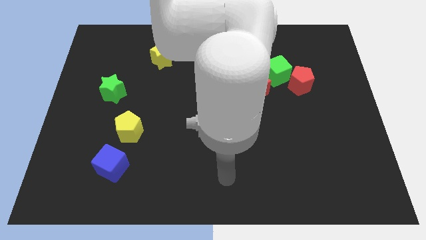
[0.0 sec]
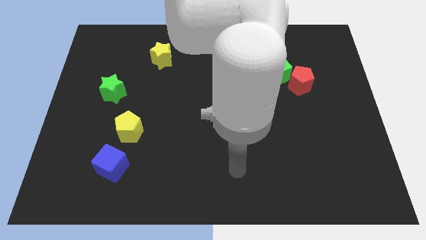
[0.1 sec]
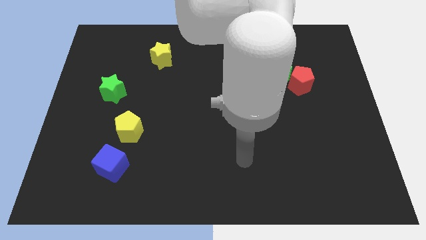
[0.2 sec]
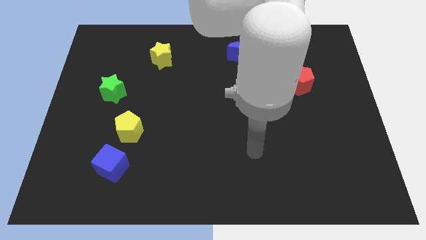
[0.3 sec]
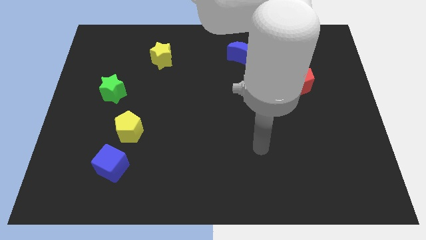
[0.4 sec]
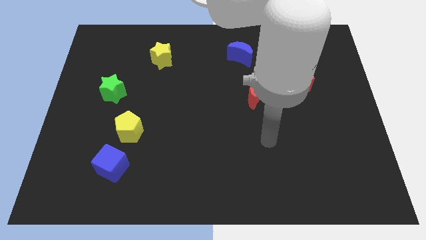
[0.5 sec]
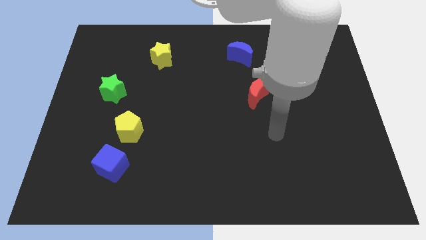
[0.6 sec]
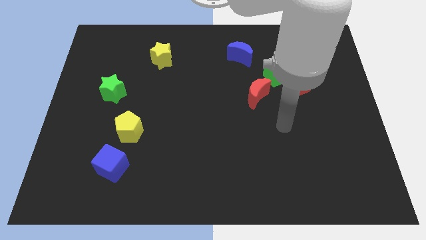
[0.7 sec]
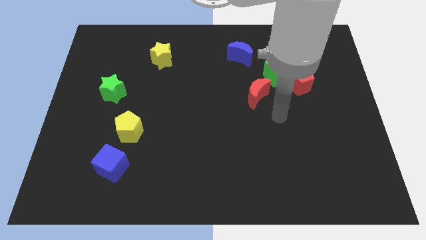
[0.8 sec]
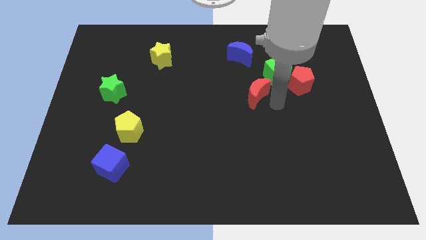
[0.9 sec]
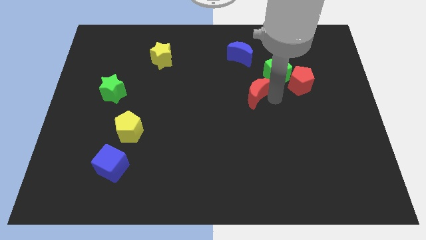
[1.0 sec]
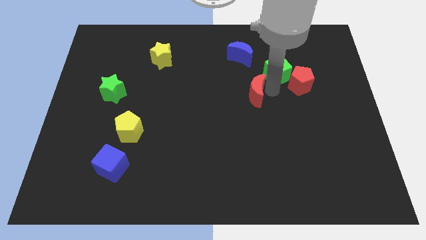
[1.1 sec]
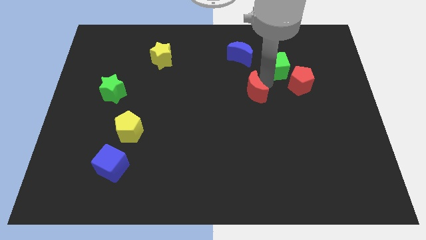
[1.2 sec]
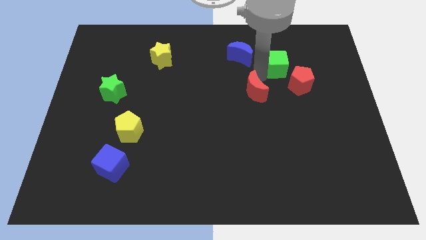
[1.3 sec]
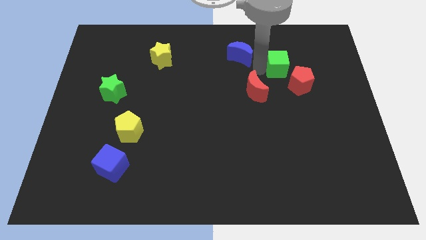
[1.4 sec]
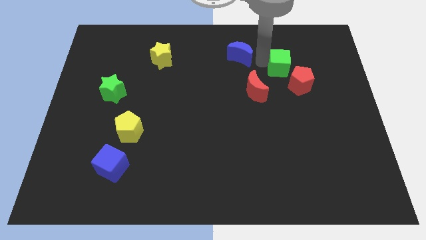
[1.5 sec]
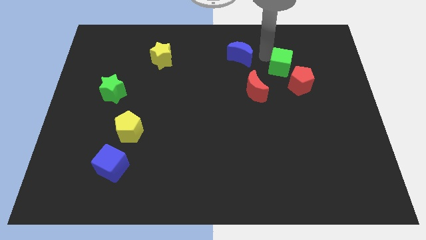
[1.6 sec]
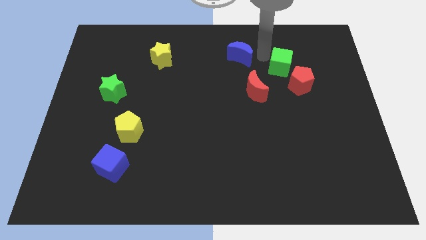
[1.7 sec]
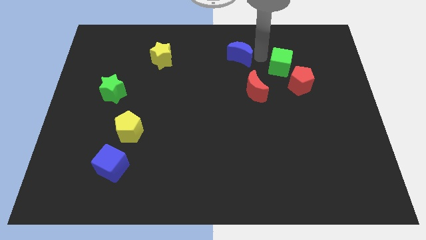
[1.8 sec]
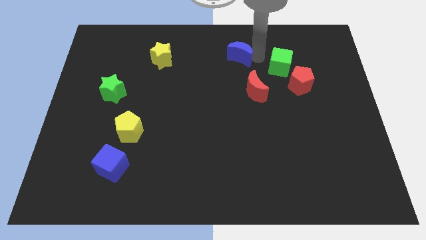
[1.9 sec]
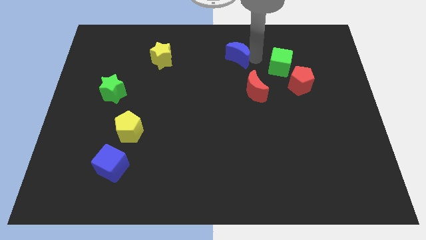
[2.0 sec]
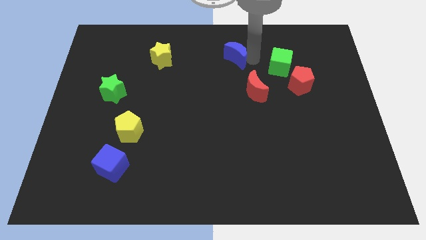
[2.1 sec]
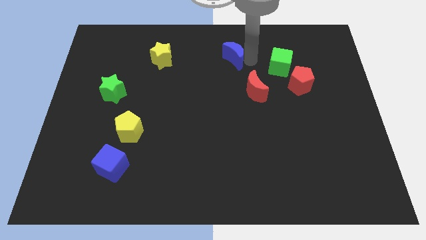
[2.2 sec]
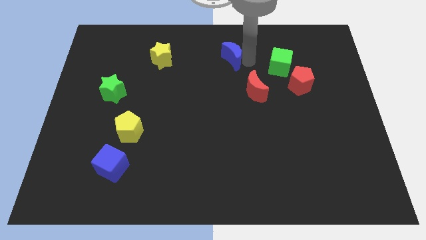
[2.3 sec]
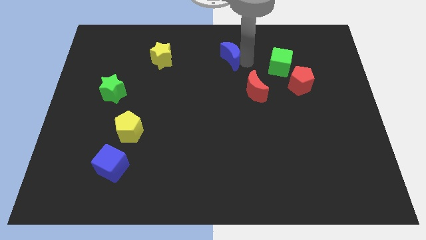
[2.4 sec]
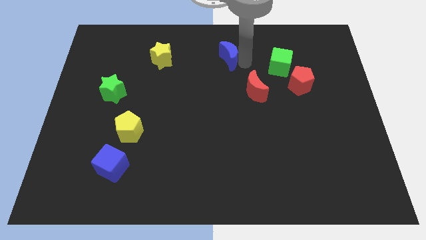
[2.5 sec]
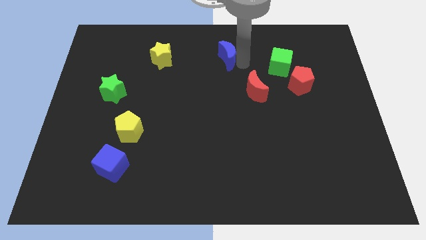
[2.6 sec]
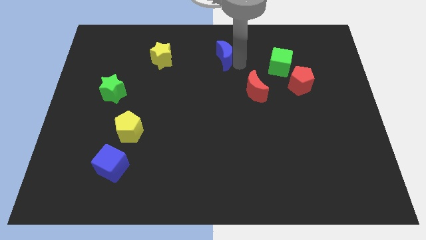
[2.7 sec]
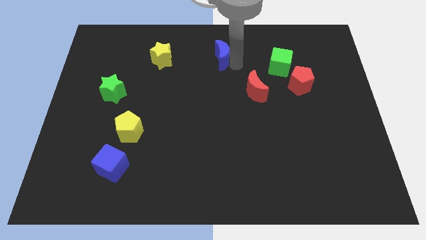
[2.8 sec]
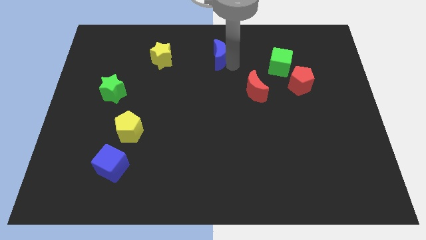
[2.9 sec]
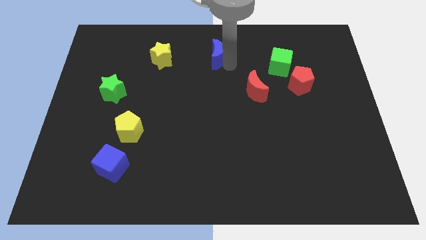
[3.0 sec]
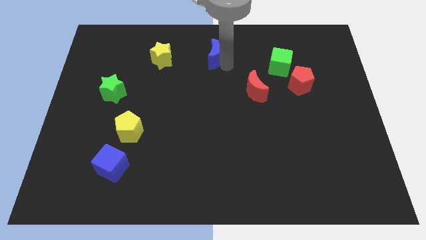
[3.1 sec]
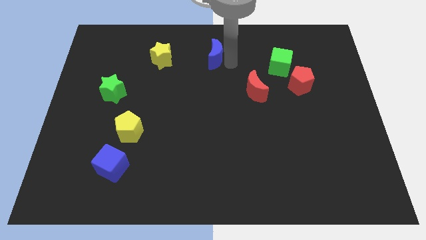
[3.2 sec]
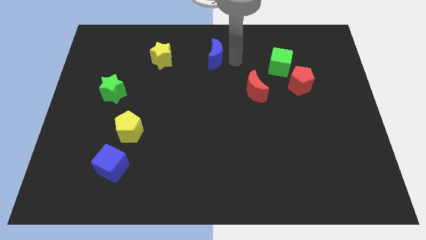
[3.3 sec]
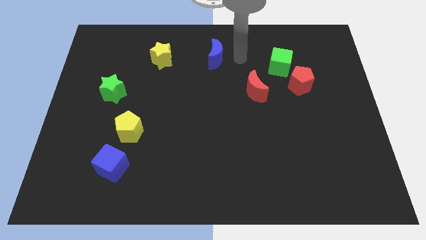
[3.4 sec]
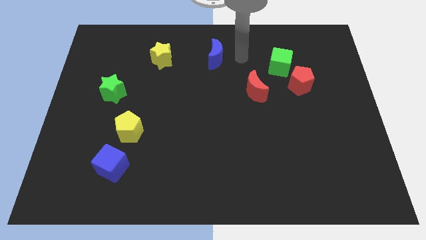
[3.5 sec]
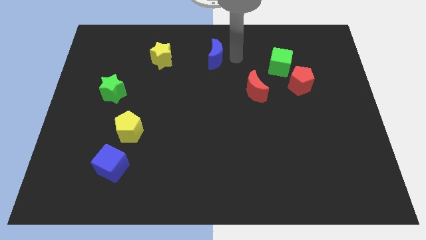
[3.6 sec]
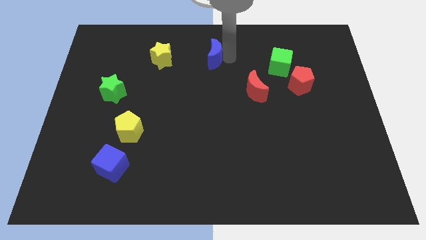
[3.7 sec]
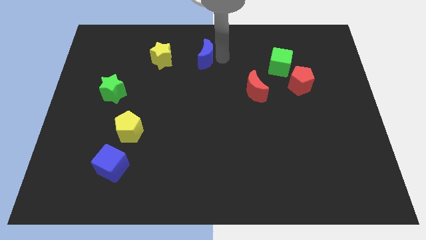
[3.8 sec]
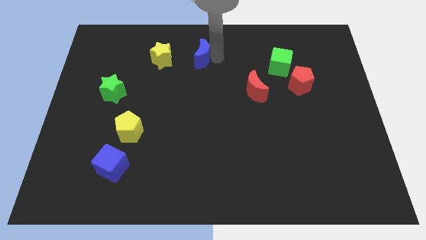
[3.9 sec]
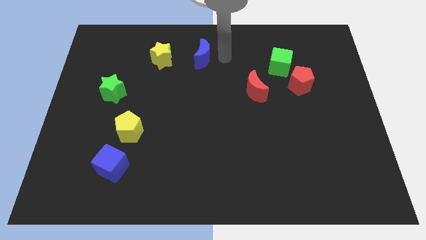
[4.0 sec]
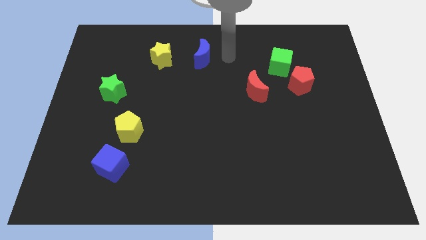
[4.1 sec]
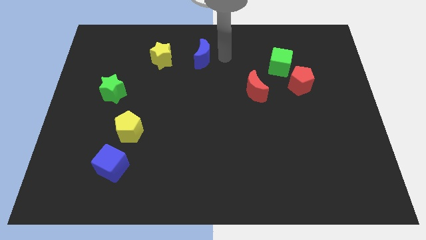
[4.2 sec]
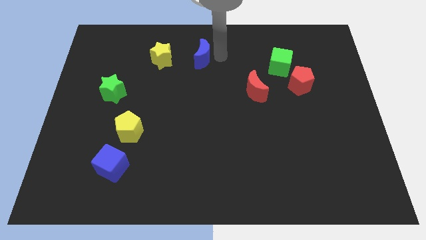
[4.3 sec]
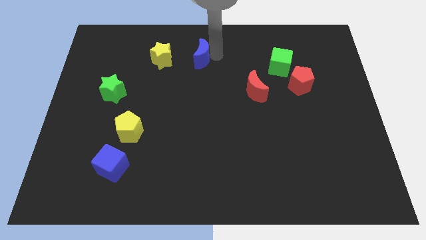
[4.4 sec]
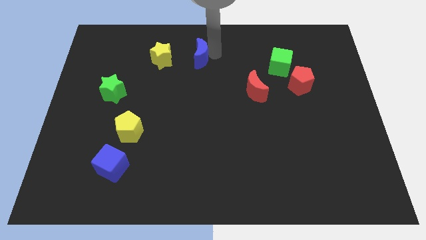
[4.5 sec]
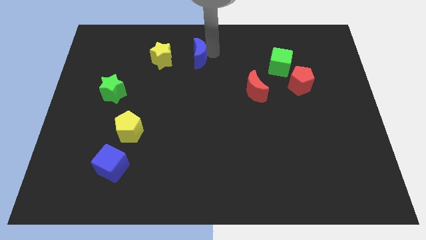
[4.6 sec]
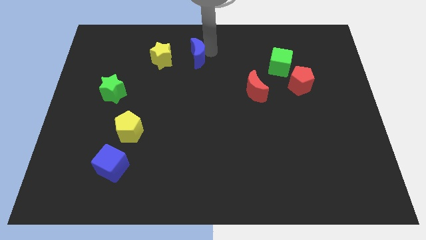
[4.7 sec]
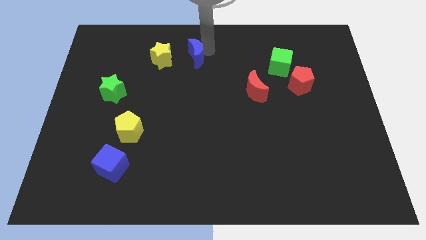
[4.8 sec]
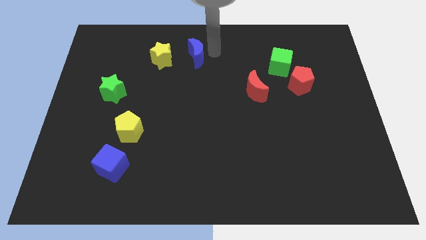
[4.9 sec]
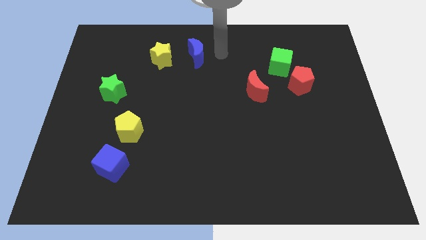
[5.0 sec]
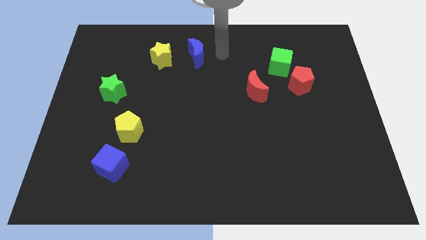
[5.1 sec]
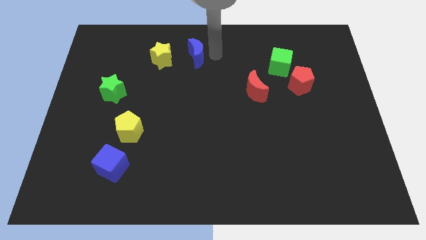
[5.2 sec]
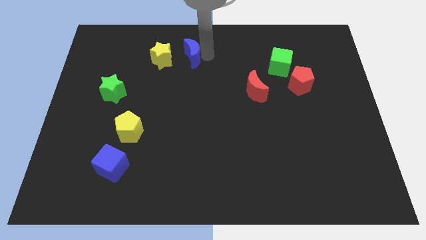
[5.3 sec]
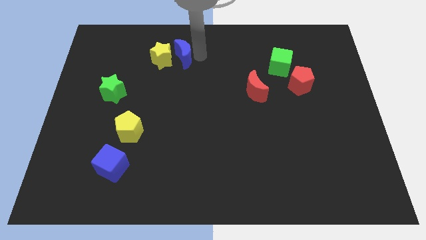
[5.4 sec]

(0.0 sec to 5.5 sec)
slide the blue moon close to the yellow star

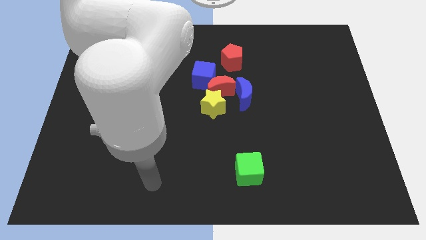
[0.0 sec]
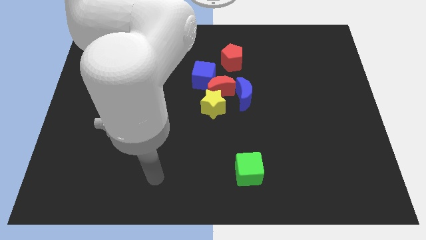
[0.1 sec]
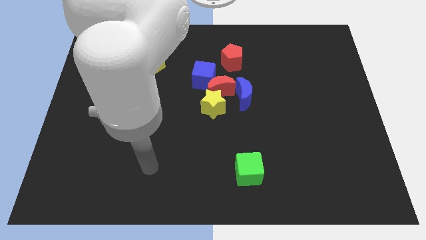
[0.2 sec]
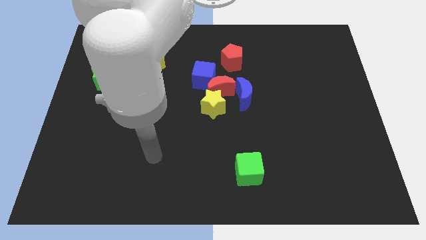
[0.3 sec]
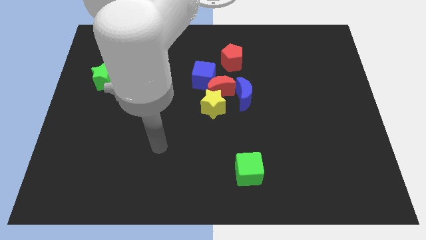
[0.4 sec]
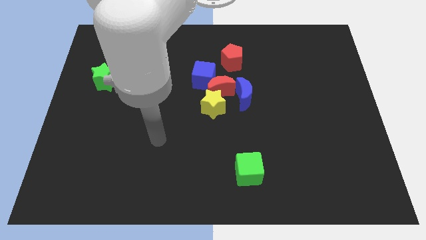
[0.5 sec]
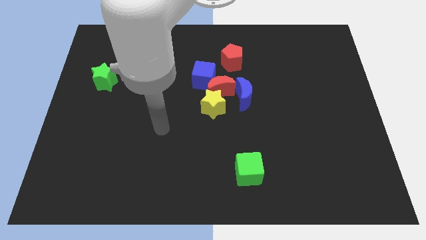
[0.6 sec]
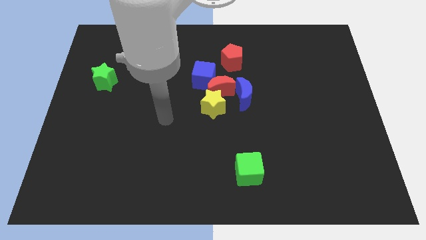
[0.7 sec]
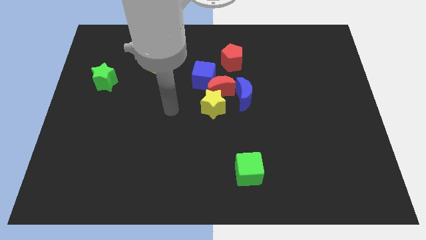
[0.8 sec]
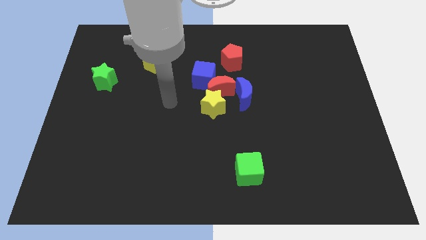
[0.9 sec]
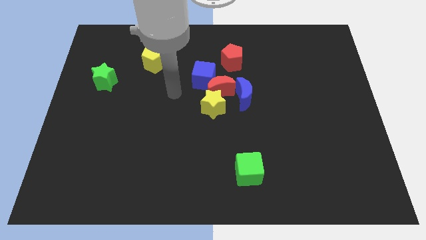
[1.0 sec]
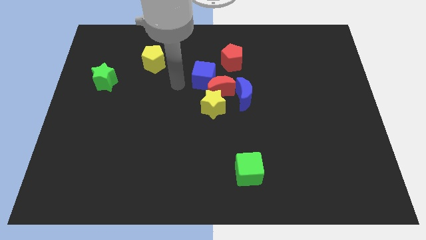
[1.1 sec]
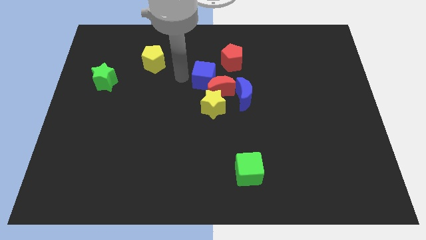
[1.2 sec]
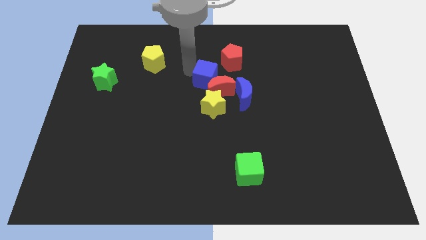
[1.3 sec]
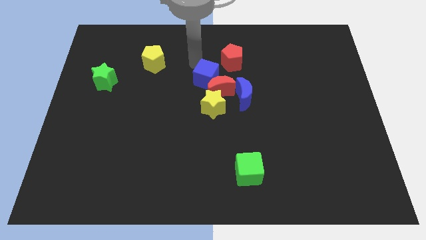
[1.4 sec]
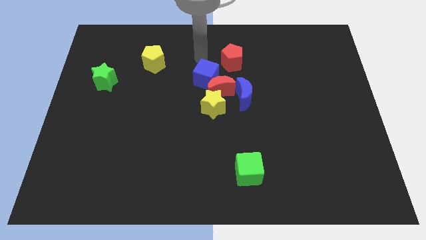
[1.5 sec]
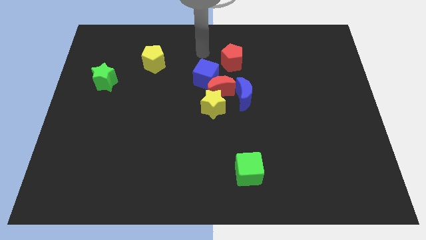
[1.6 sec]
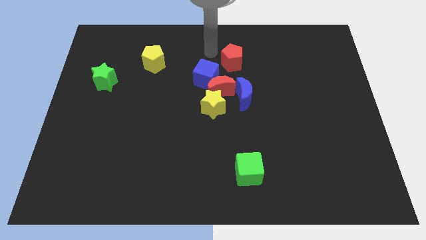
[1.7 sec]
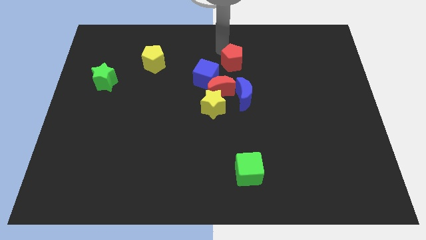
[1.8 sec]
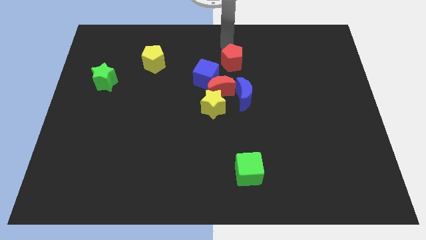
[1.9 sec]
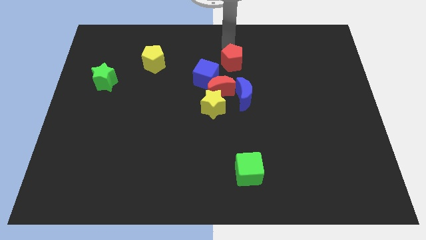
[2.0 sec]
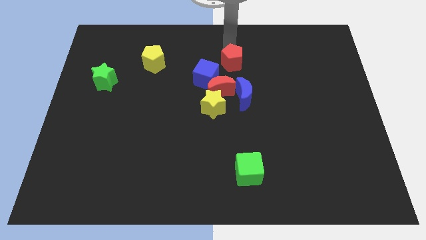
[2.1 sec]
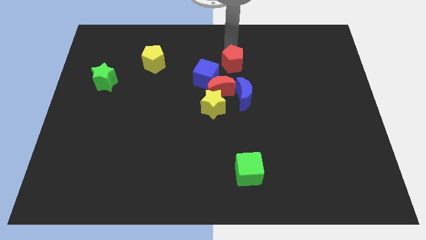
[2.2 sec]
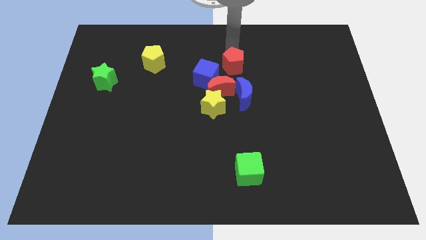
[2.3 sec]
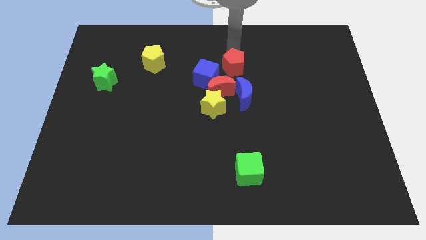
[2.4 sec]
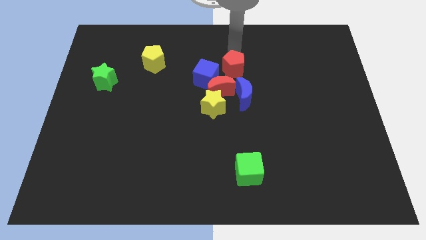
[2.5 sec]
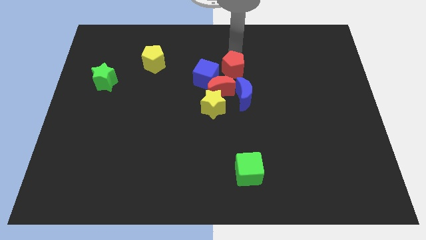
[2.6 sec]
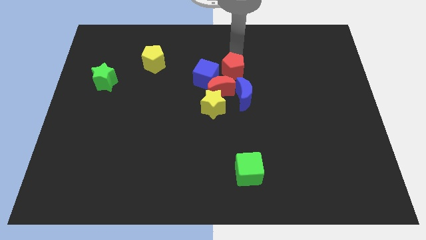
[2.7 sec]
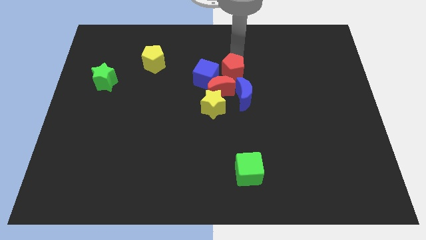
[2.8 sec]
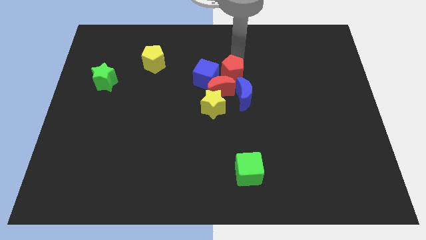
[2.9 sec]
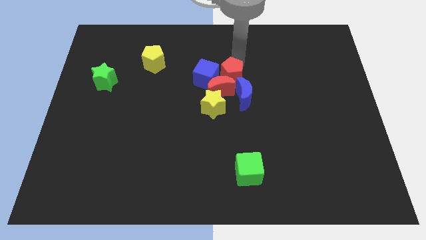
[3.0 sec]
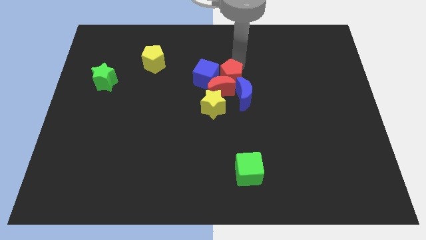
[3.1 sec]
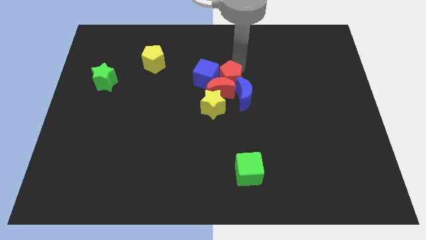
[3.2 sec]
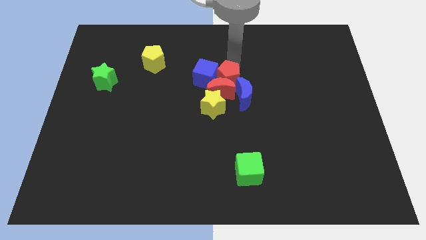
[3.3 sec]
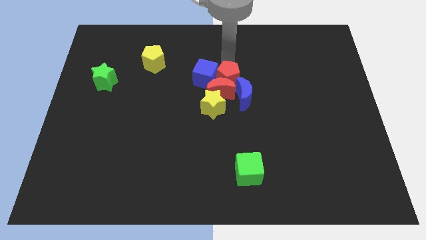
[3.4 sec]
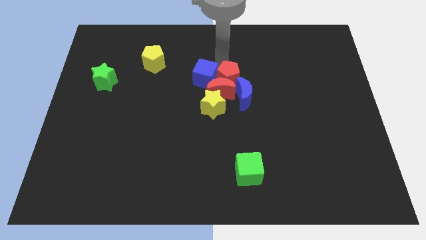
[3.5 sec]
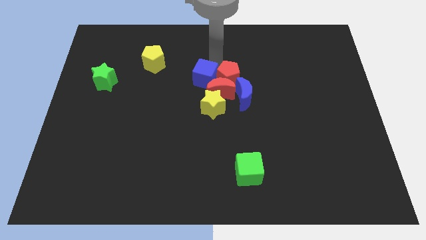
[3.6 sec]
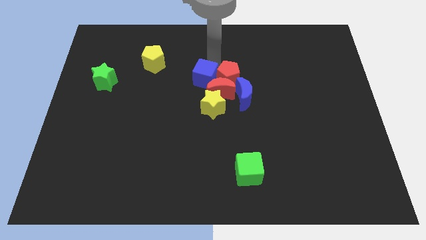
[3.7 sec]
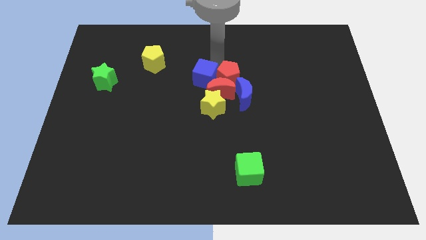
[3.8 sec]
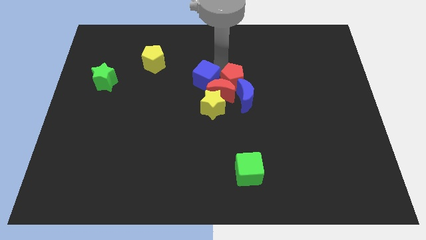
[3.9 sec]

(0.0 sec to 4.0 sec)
push the red pentagon to the blue moon
